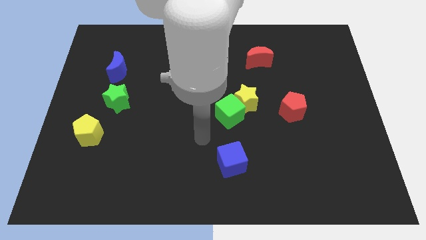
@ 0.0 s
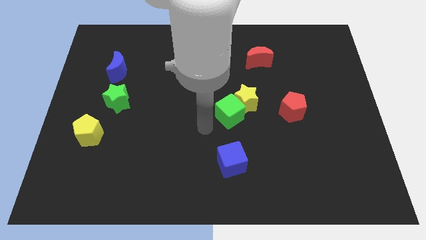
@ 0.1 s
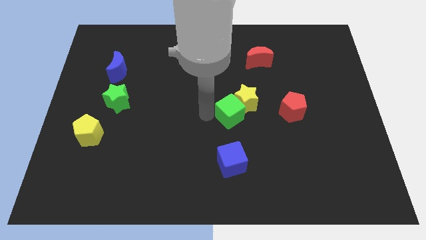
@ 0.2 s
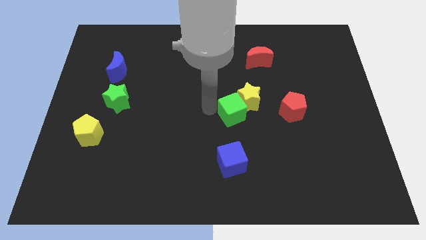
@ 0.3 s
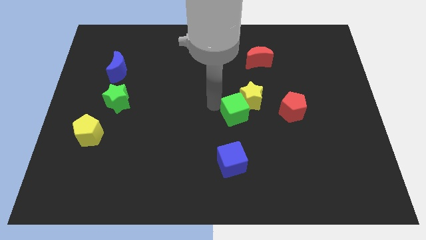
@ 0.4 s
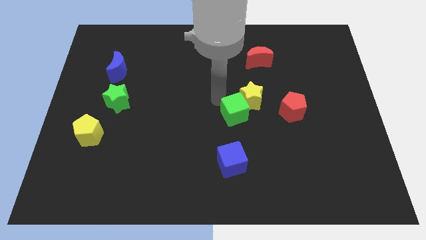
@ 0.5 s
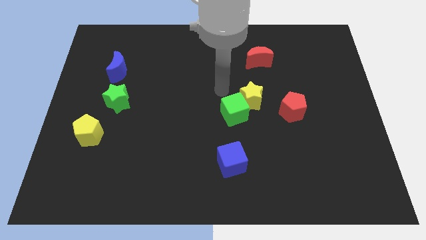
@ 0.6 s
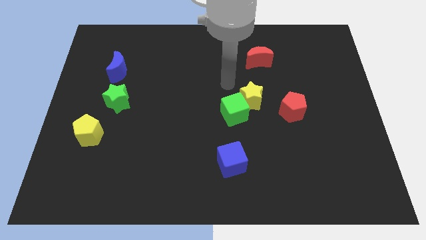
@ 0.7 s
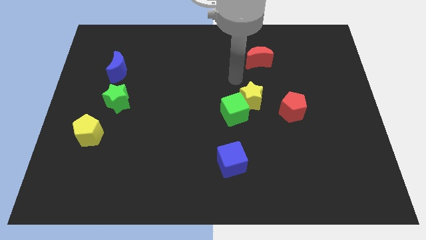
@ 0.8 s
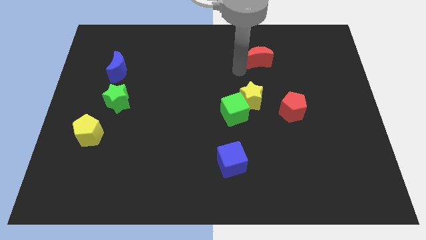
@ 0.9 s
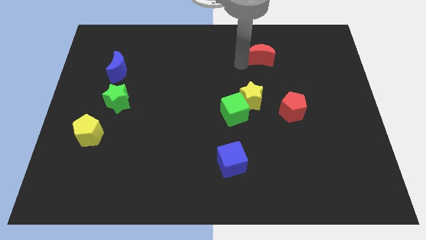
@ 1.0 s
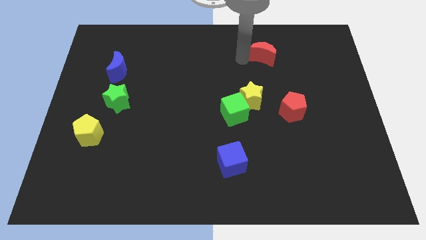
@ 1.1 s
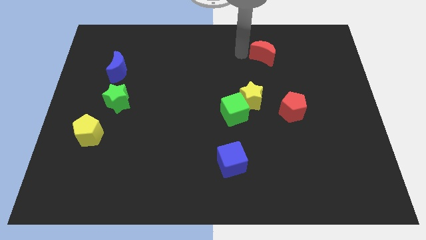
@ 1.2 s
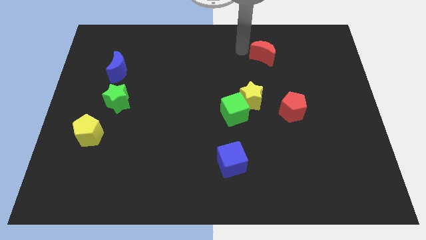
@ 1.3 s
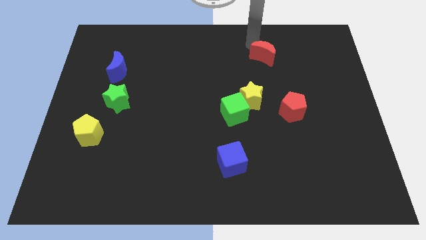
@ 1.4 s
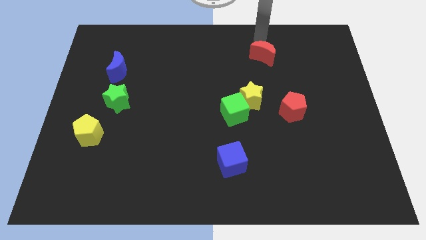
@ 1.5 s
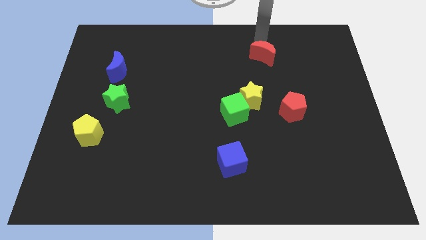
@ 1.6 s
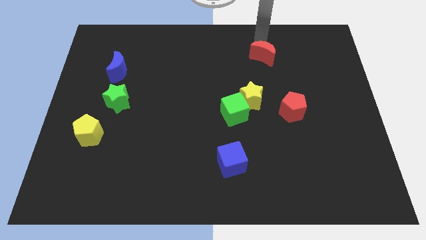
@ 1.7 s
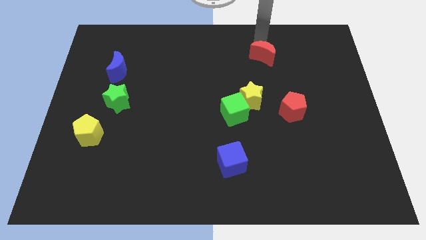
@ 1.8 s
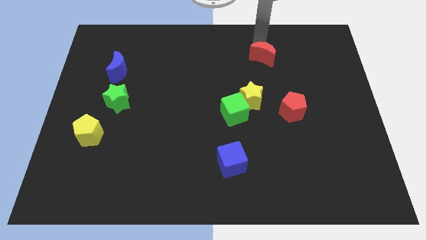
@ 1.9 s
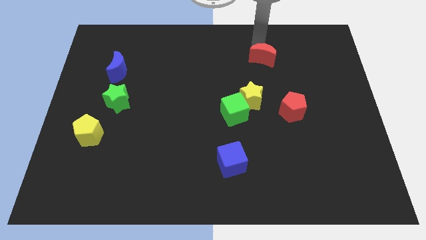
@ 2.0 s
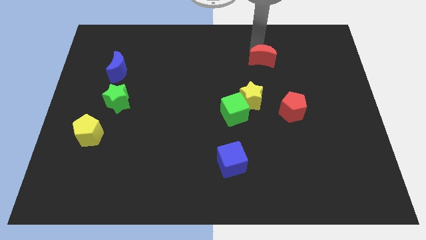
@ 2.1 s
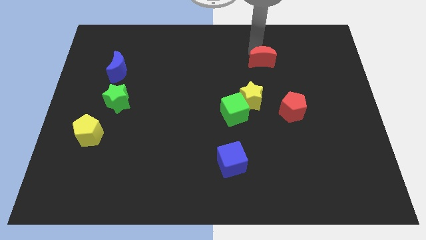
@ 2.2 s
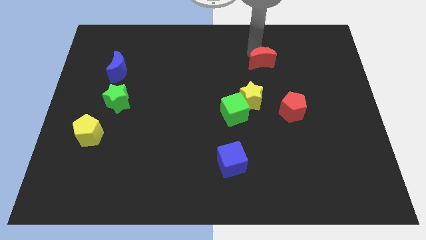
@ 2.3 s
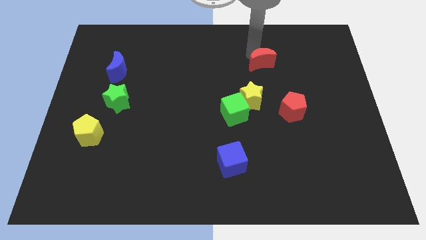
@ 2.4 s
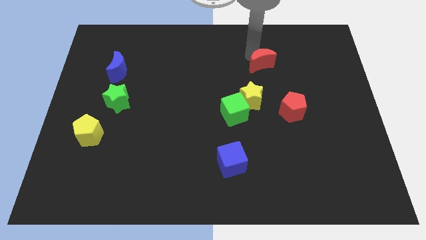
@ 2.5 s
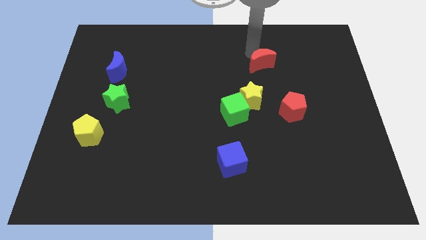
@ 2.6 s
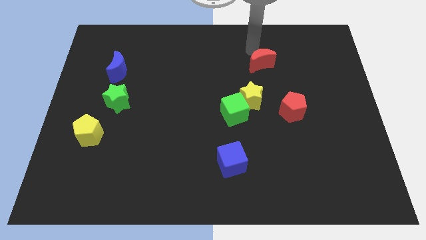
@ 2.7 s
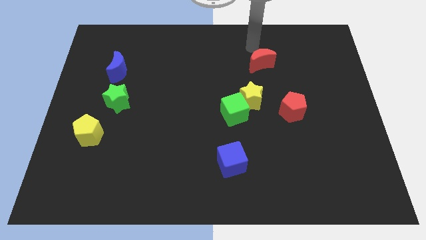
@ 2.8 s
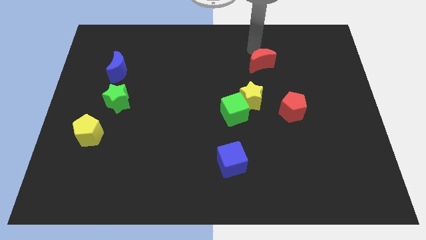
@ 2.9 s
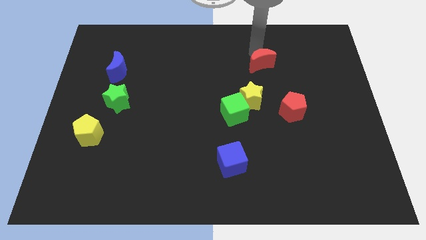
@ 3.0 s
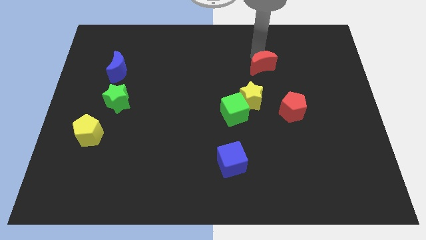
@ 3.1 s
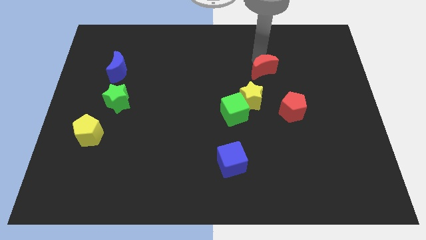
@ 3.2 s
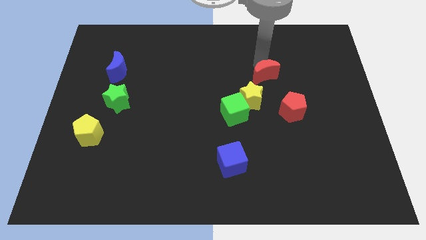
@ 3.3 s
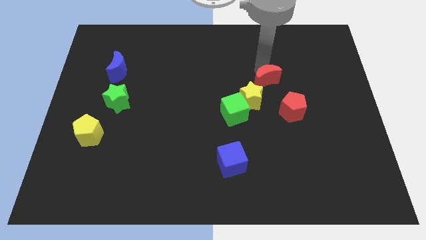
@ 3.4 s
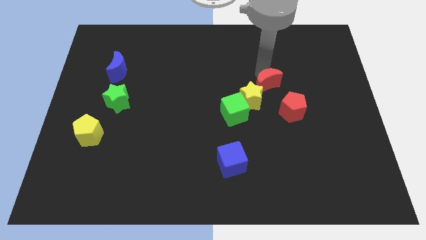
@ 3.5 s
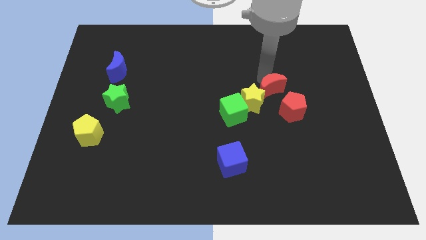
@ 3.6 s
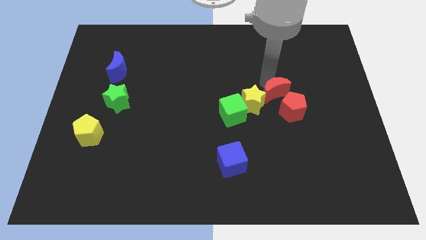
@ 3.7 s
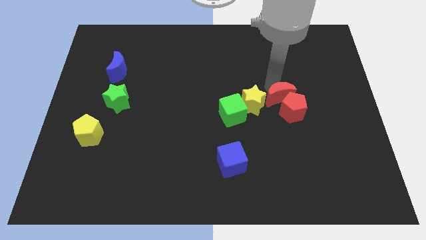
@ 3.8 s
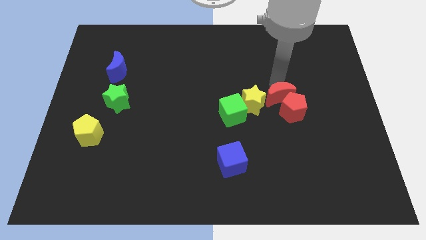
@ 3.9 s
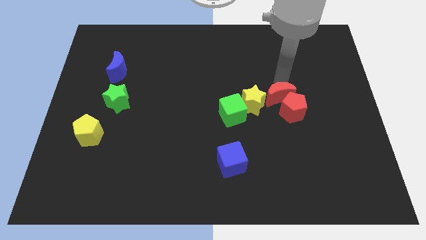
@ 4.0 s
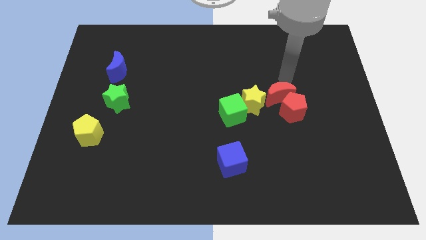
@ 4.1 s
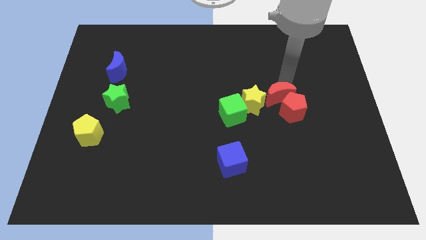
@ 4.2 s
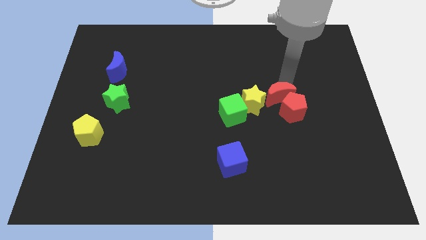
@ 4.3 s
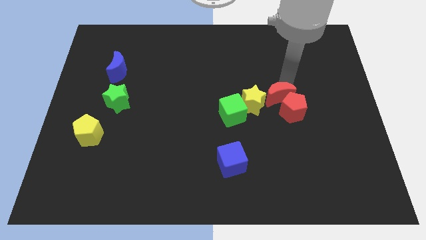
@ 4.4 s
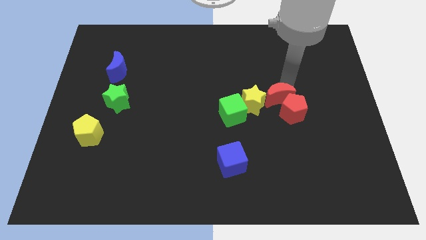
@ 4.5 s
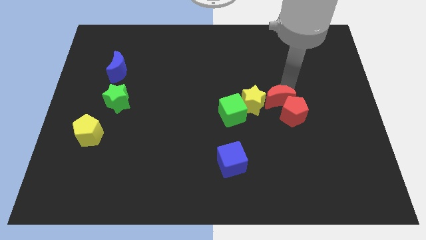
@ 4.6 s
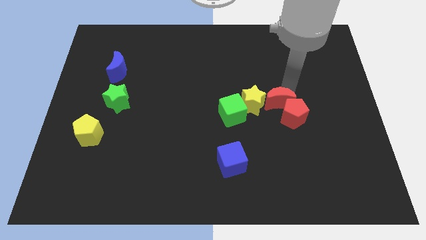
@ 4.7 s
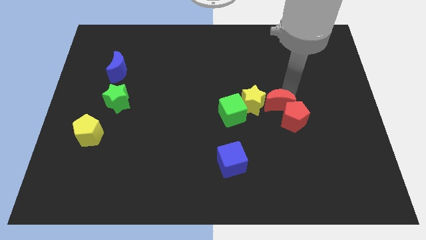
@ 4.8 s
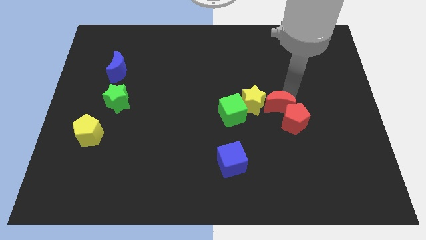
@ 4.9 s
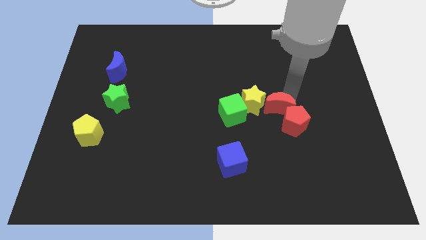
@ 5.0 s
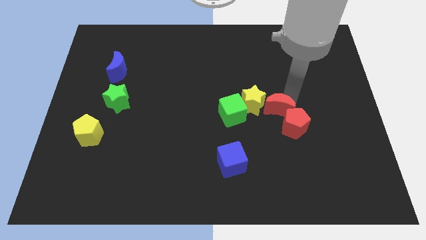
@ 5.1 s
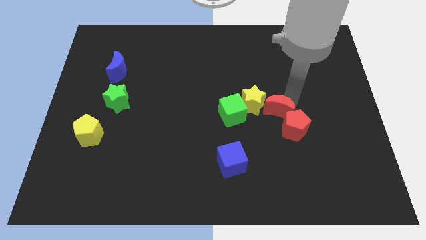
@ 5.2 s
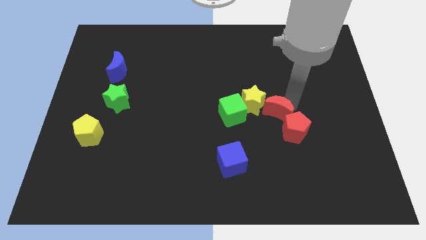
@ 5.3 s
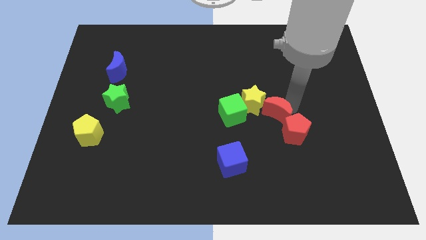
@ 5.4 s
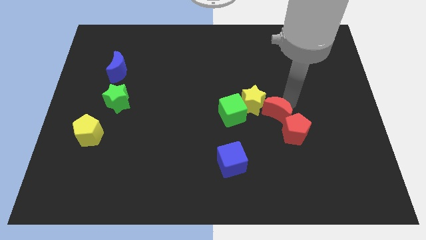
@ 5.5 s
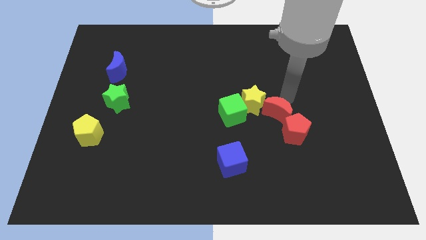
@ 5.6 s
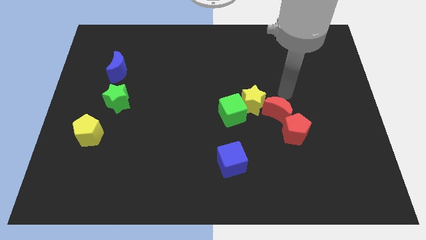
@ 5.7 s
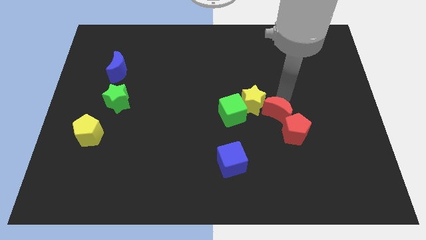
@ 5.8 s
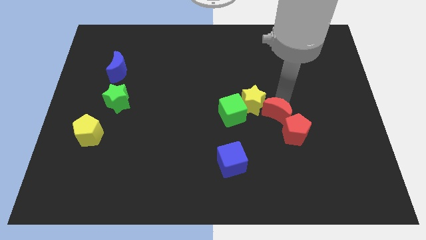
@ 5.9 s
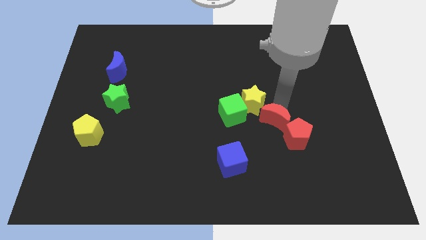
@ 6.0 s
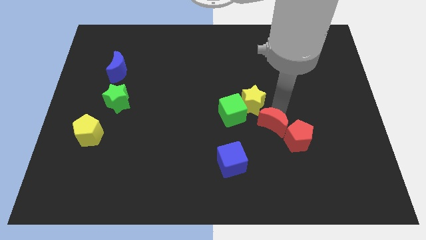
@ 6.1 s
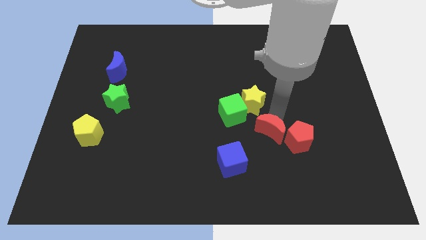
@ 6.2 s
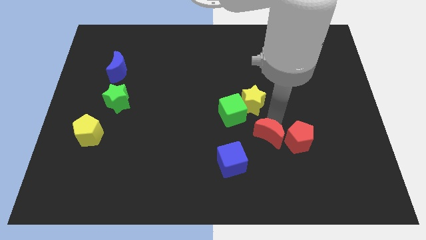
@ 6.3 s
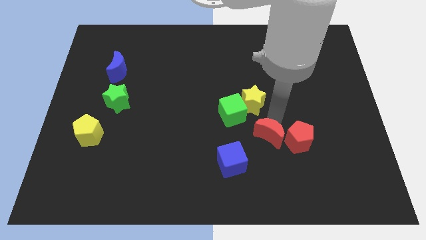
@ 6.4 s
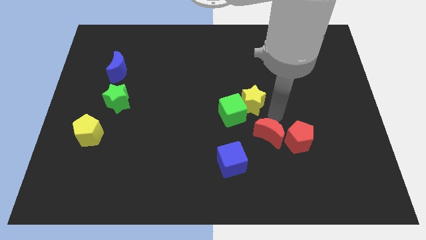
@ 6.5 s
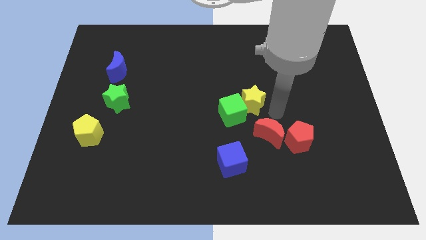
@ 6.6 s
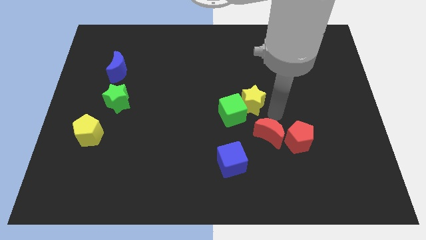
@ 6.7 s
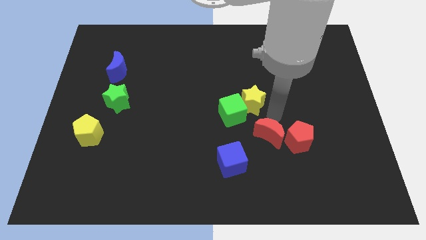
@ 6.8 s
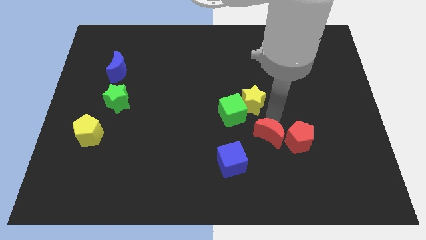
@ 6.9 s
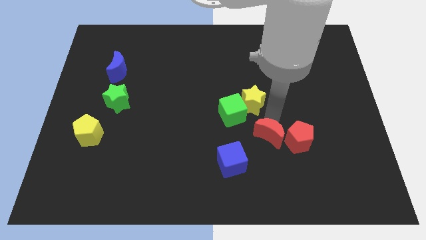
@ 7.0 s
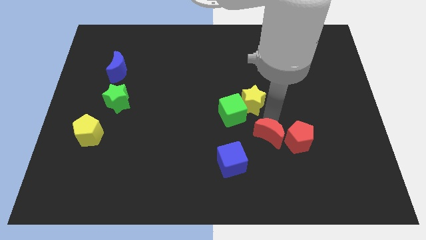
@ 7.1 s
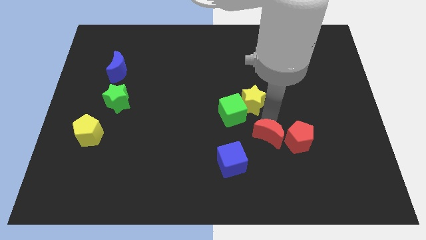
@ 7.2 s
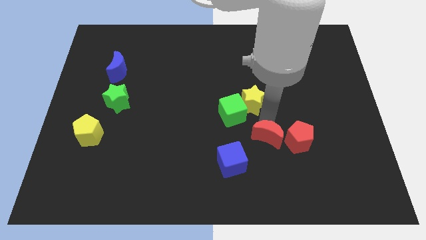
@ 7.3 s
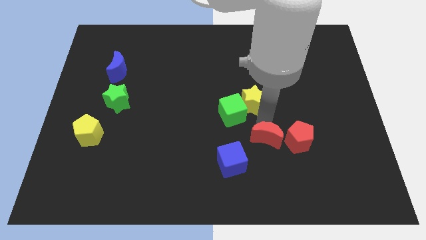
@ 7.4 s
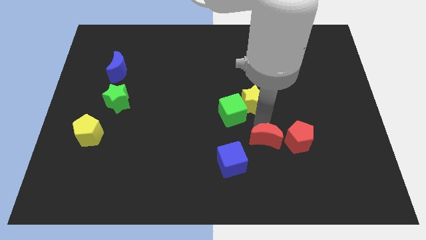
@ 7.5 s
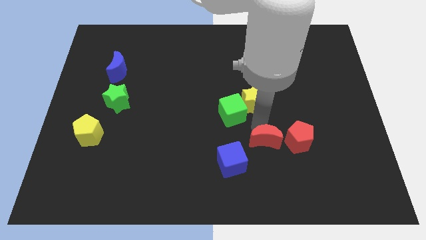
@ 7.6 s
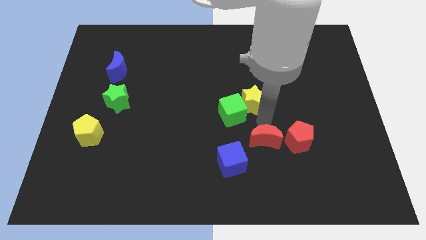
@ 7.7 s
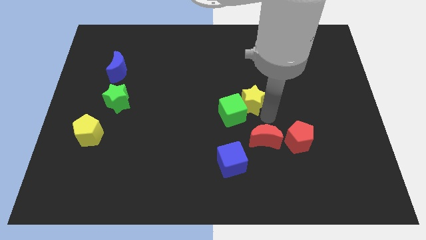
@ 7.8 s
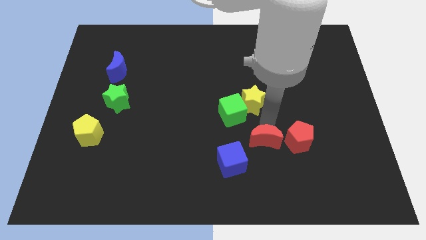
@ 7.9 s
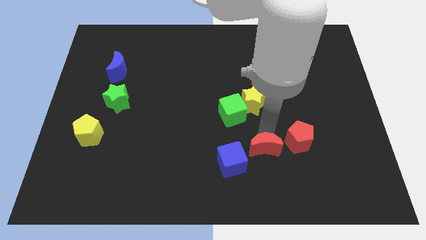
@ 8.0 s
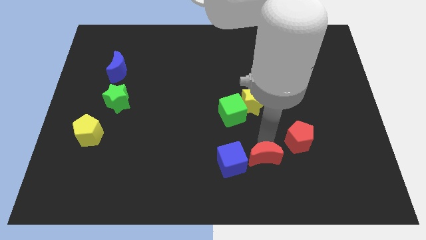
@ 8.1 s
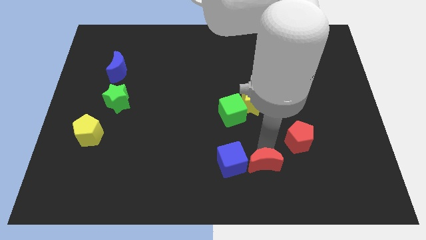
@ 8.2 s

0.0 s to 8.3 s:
push the red moon to the bottom right of the blue cube
